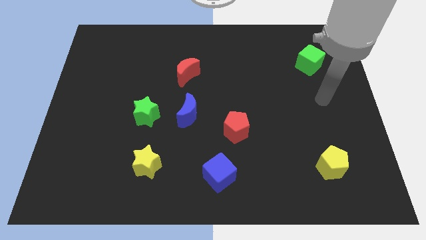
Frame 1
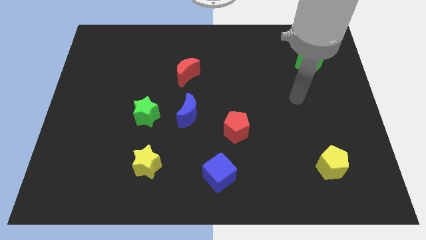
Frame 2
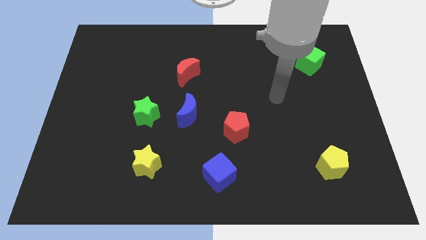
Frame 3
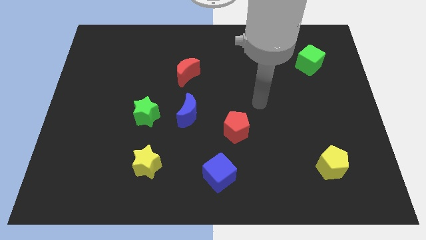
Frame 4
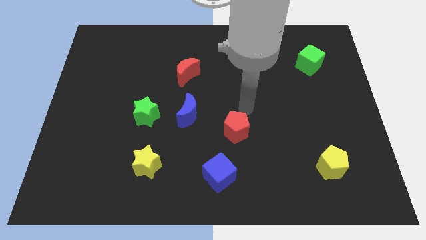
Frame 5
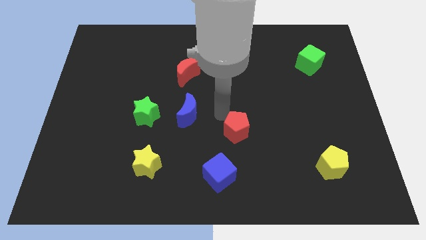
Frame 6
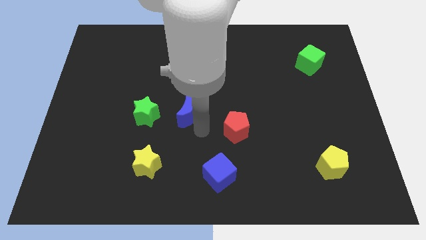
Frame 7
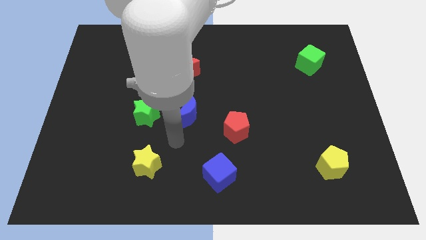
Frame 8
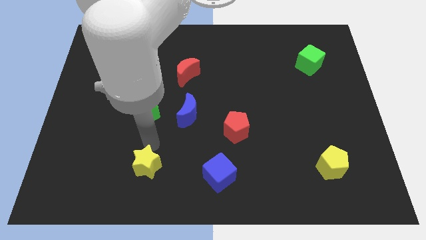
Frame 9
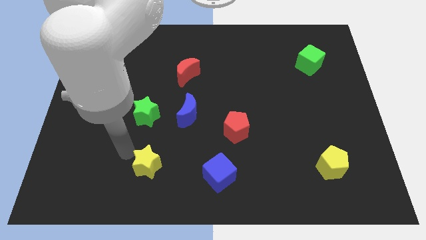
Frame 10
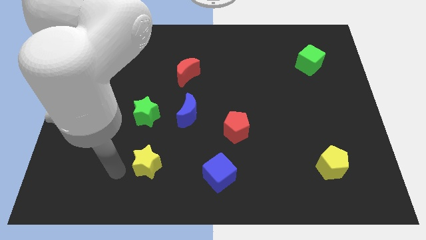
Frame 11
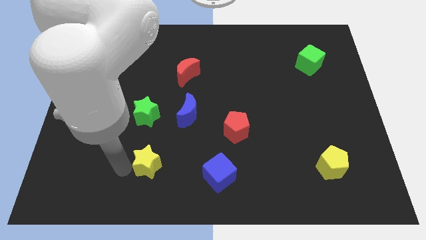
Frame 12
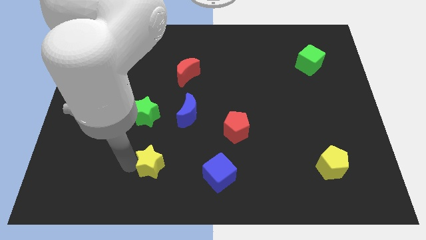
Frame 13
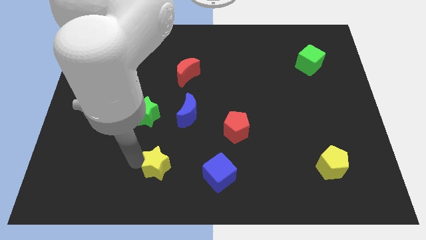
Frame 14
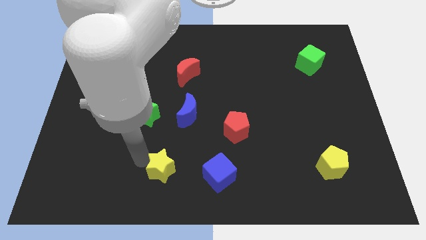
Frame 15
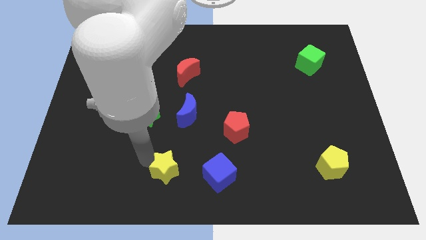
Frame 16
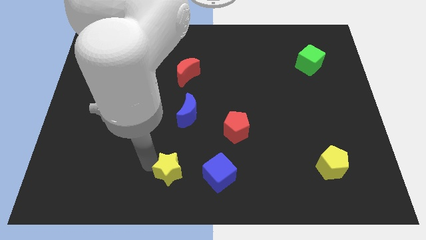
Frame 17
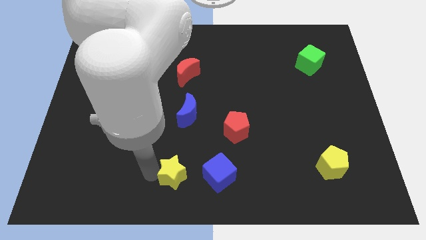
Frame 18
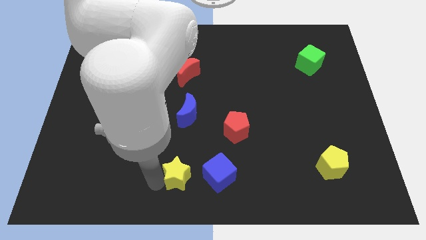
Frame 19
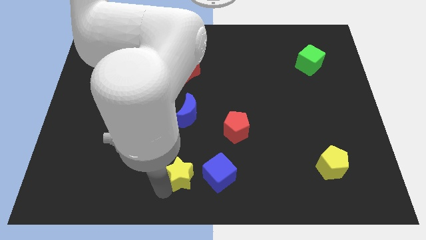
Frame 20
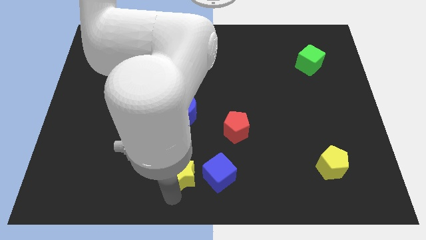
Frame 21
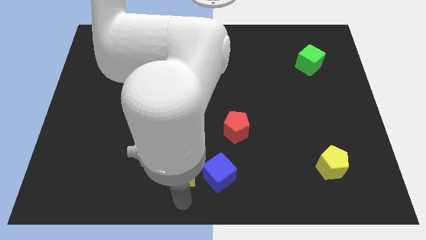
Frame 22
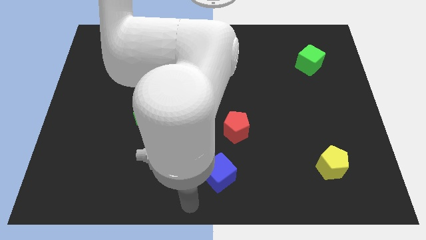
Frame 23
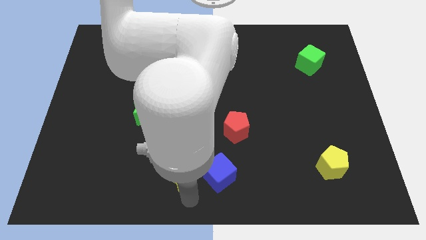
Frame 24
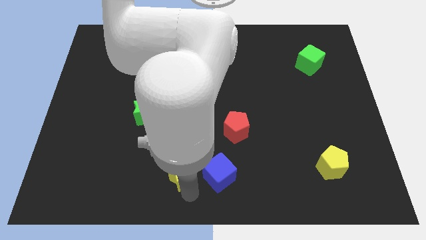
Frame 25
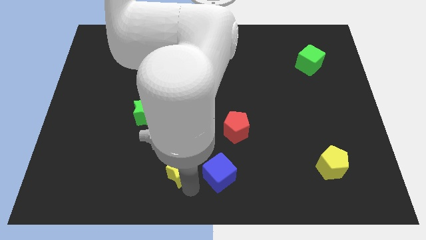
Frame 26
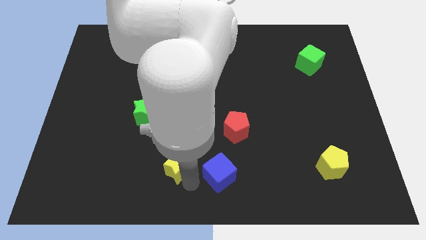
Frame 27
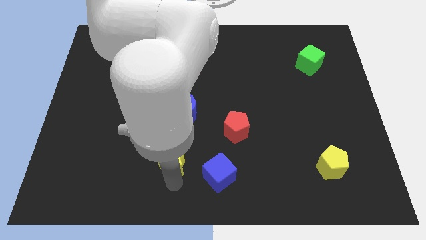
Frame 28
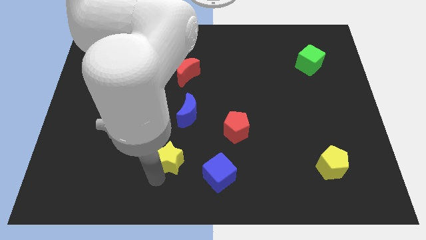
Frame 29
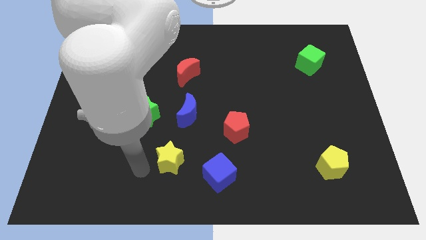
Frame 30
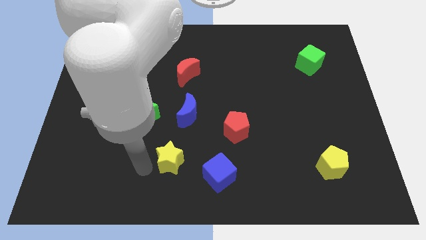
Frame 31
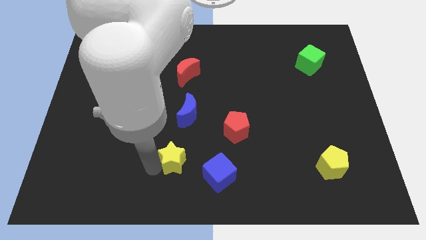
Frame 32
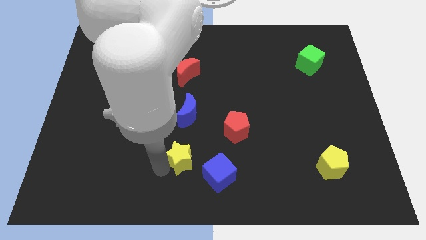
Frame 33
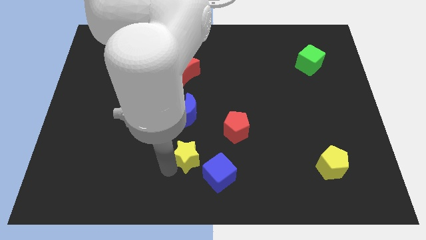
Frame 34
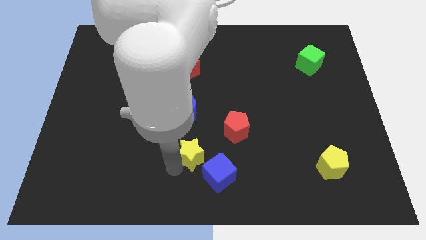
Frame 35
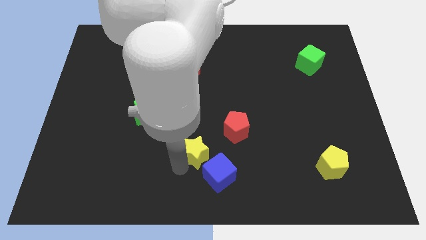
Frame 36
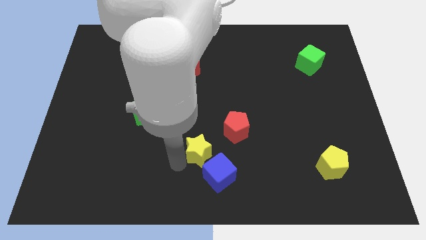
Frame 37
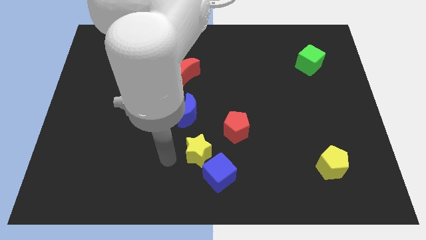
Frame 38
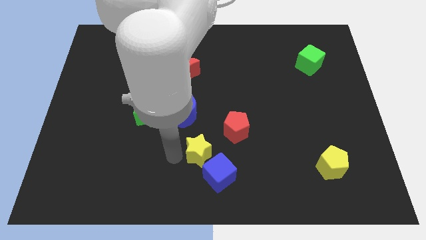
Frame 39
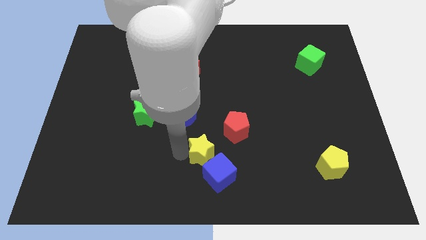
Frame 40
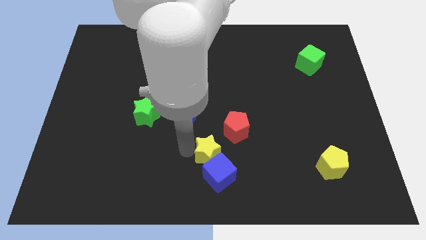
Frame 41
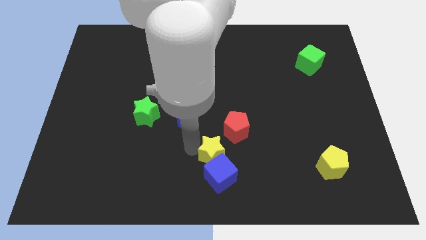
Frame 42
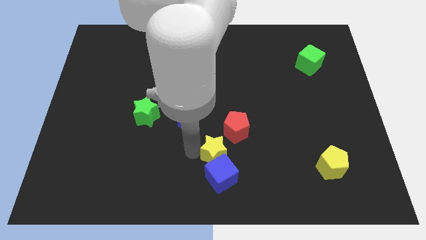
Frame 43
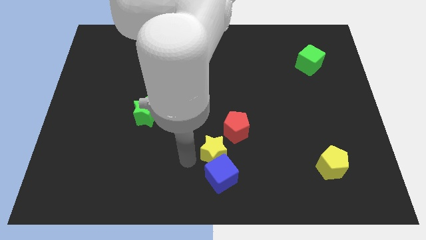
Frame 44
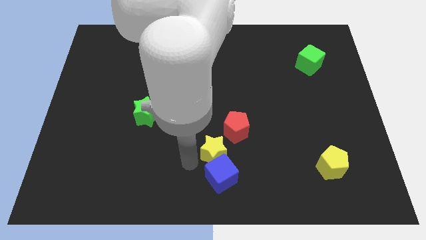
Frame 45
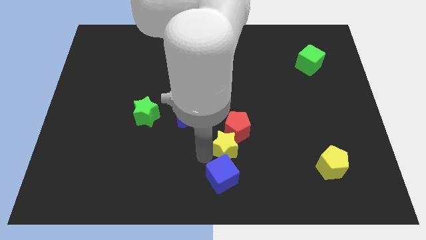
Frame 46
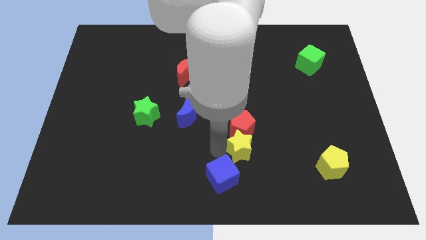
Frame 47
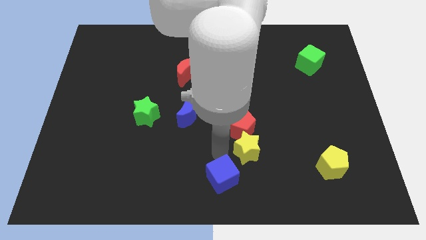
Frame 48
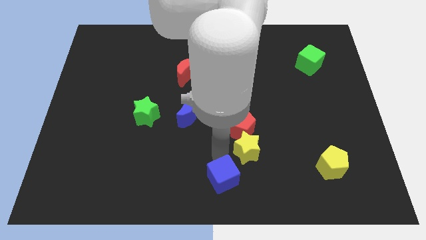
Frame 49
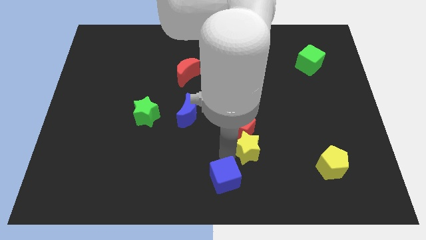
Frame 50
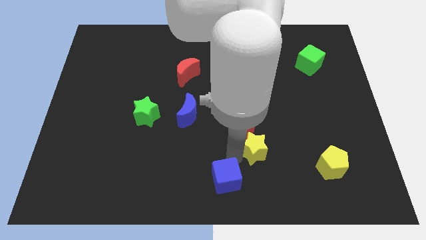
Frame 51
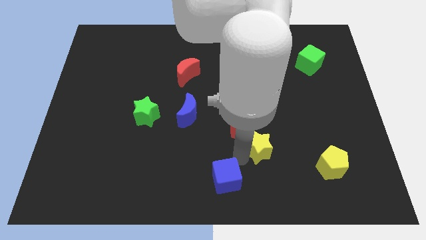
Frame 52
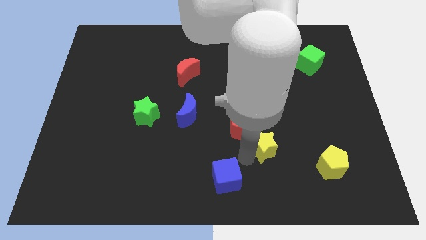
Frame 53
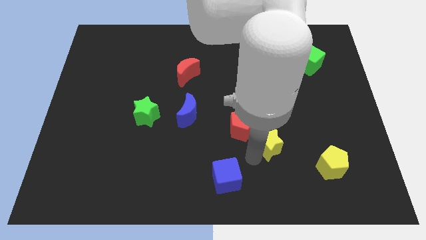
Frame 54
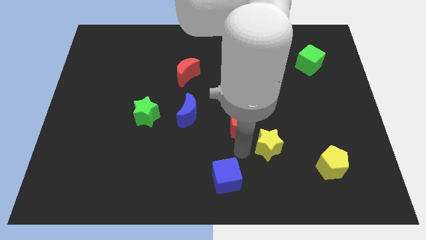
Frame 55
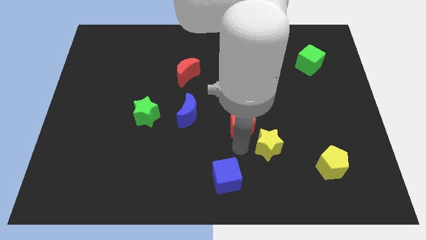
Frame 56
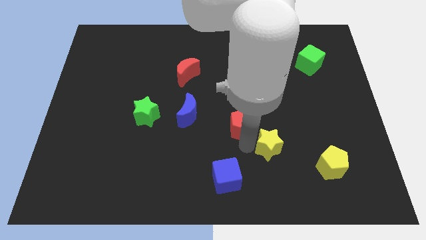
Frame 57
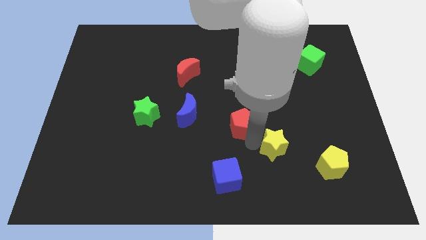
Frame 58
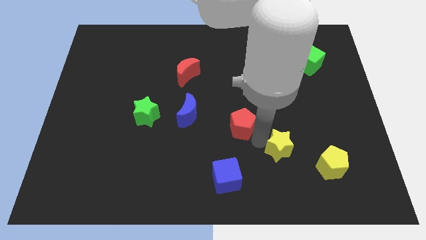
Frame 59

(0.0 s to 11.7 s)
put the yellow star to the top left side of the yellow pentagon

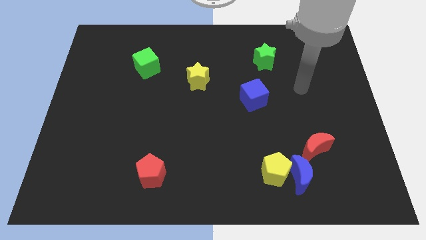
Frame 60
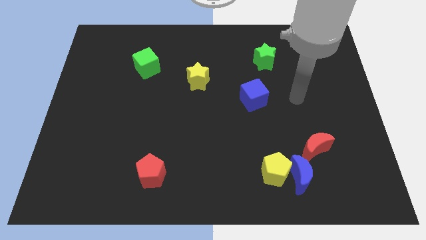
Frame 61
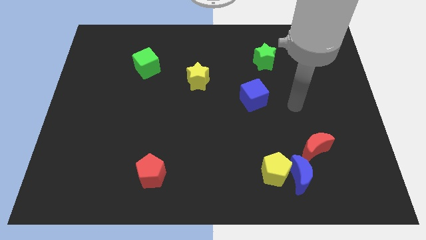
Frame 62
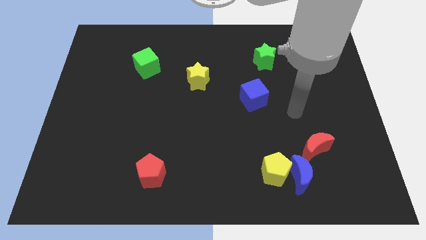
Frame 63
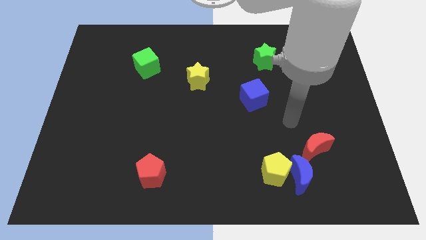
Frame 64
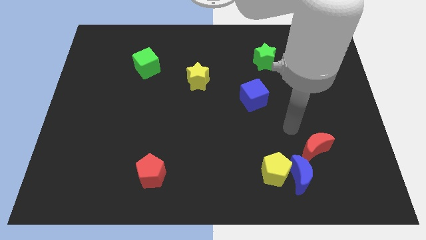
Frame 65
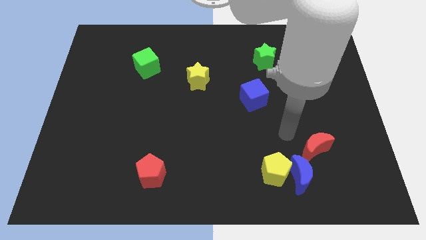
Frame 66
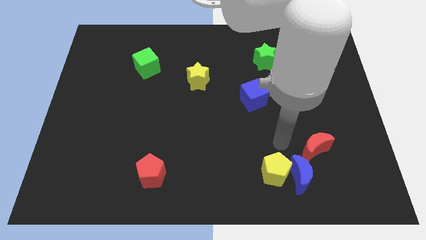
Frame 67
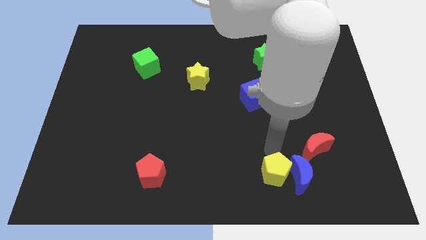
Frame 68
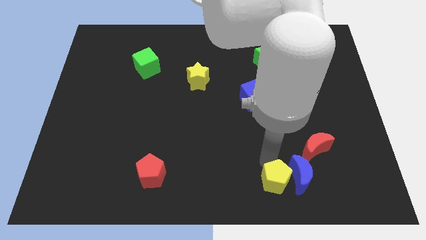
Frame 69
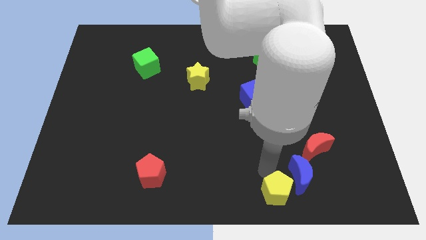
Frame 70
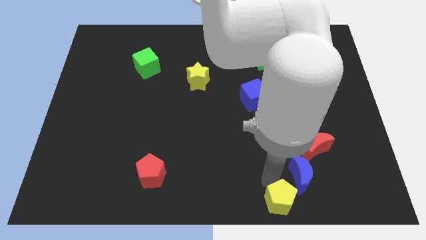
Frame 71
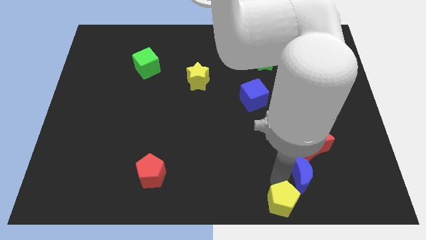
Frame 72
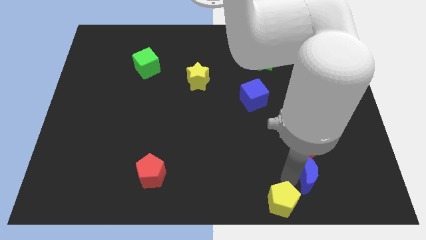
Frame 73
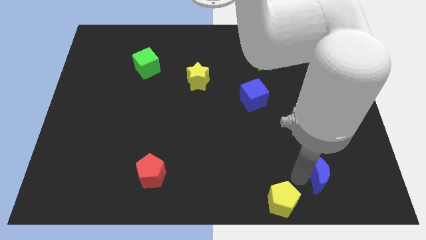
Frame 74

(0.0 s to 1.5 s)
put the blue moon diagonally down and to the right of the red moon

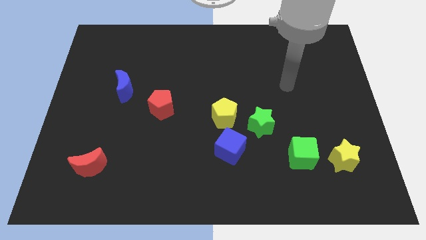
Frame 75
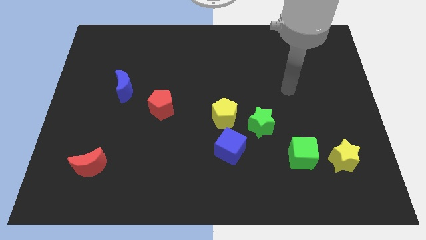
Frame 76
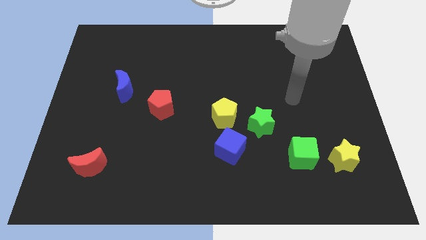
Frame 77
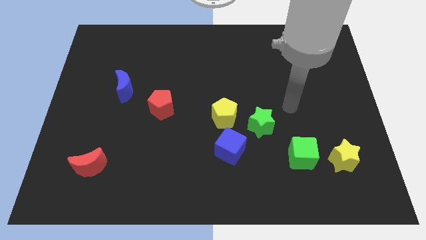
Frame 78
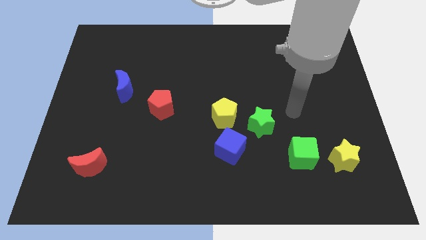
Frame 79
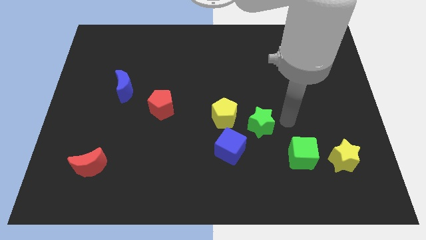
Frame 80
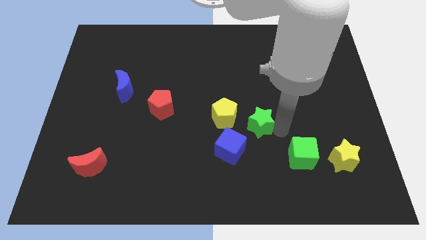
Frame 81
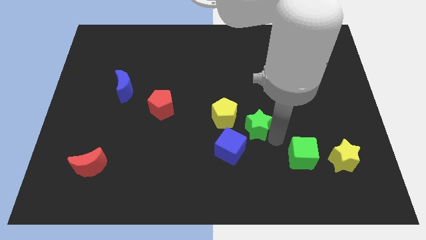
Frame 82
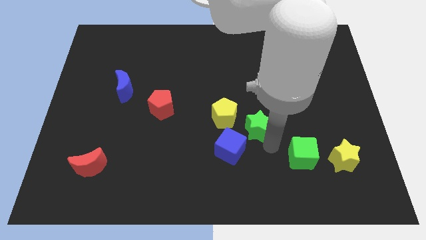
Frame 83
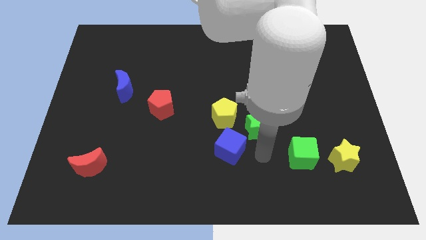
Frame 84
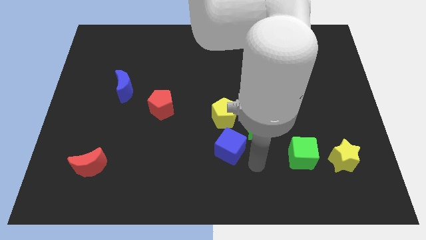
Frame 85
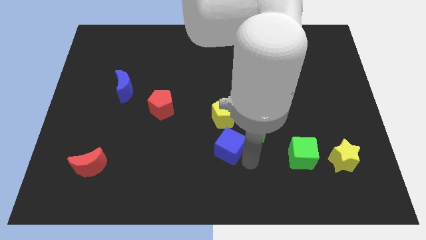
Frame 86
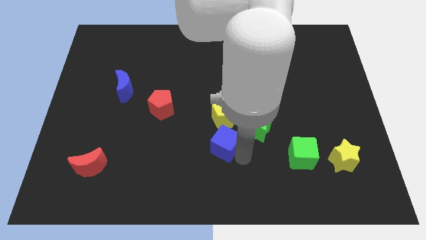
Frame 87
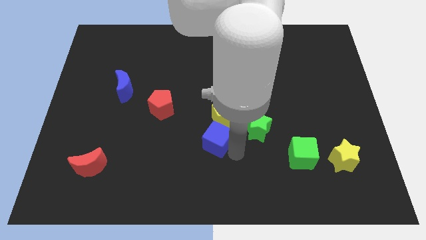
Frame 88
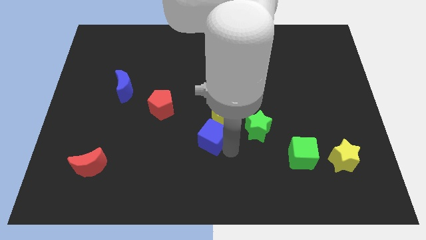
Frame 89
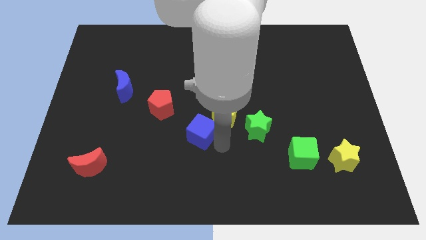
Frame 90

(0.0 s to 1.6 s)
move the blue cube to the left side of the yellow pentagon
